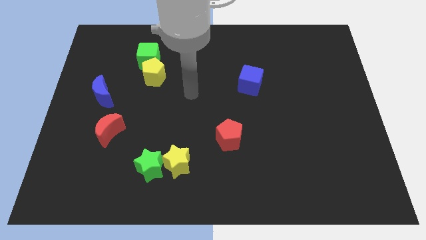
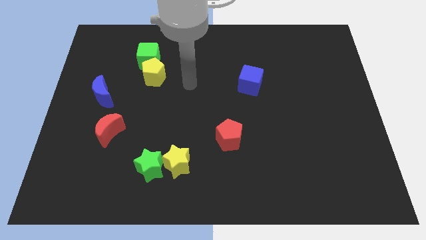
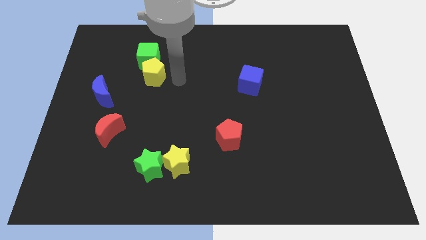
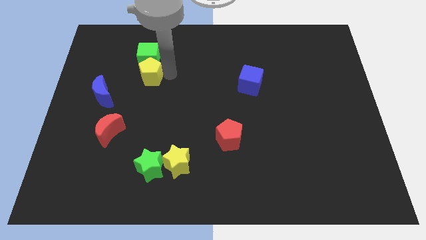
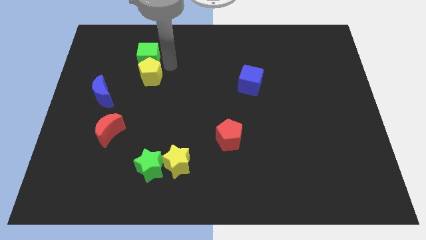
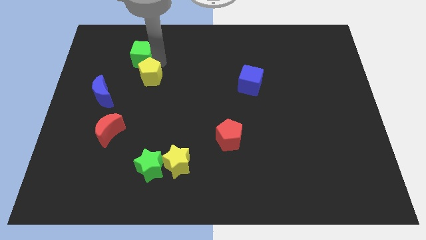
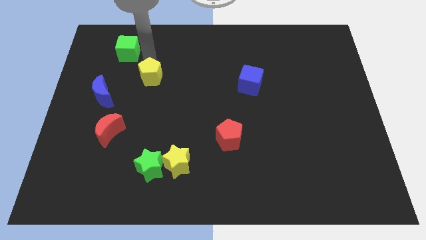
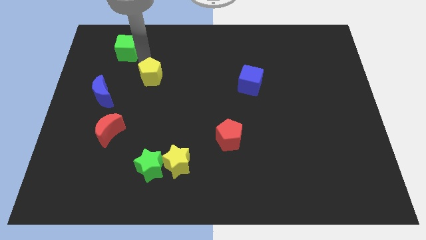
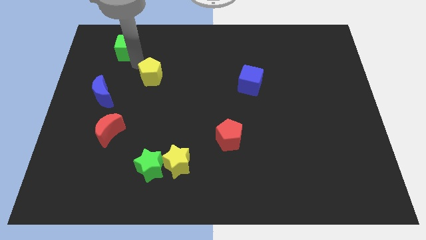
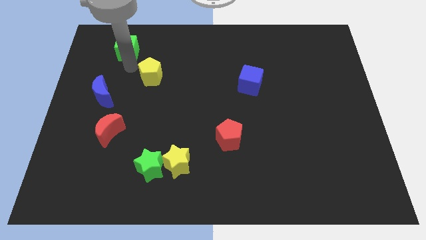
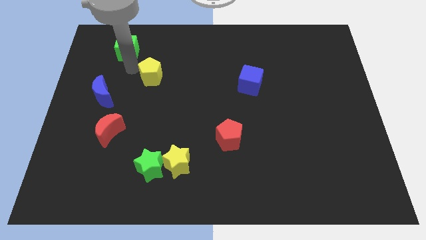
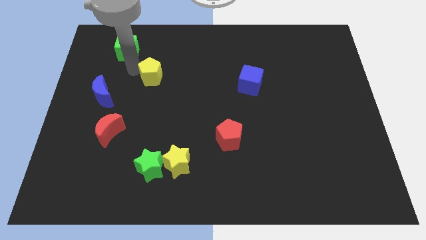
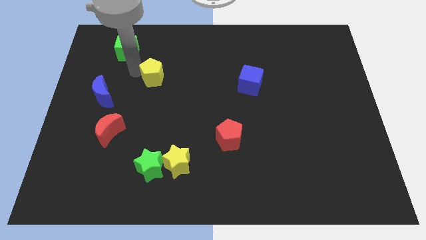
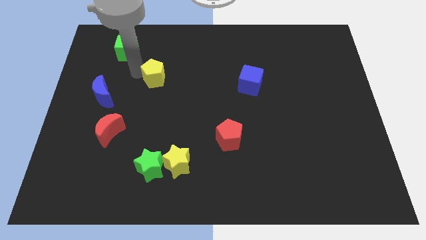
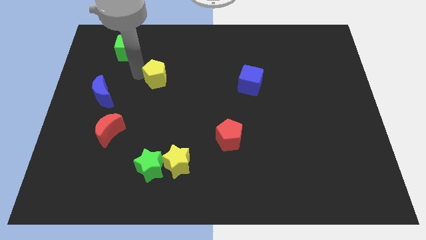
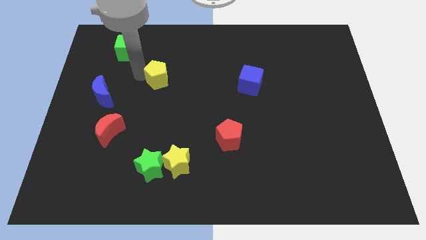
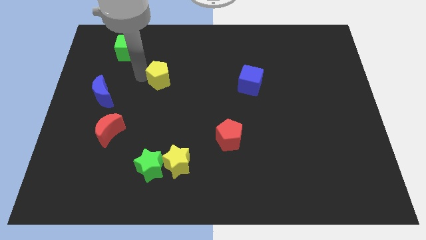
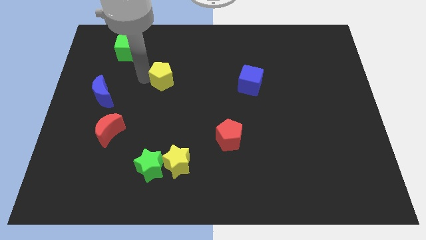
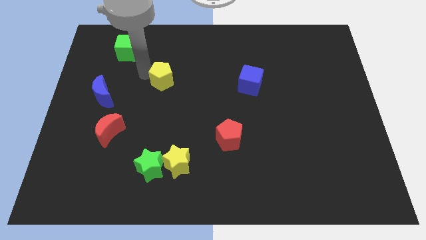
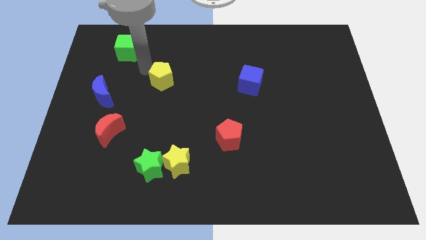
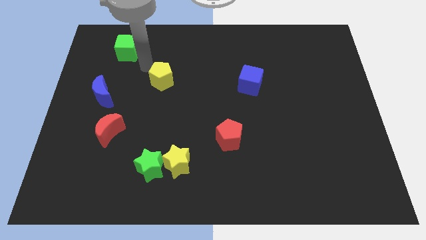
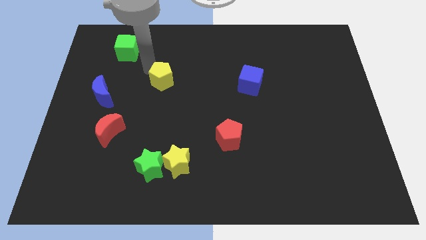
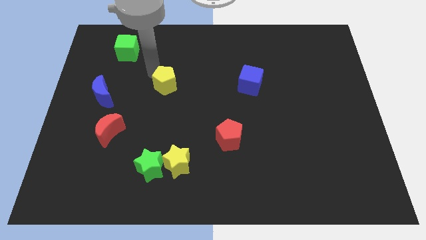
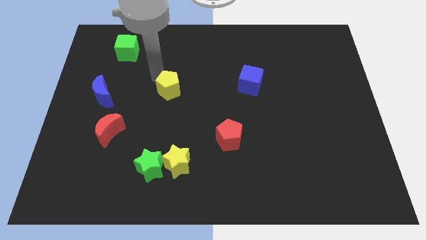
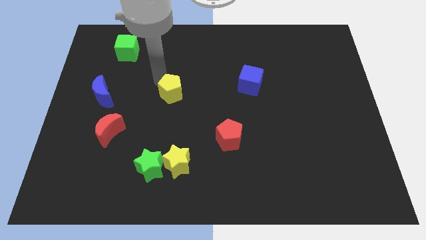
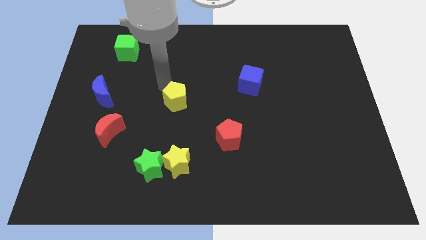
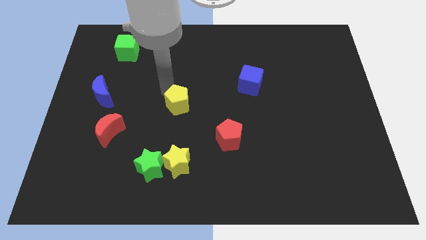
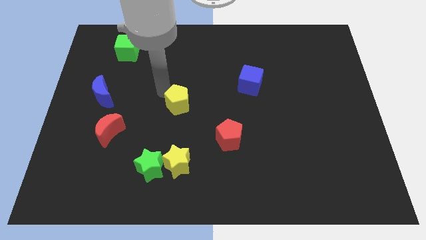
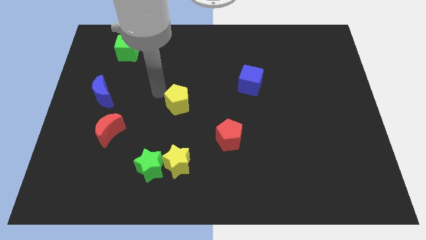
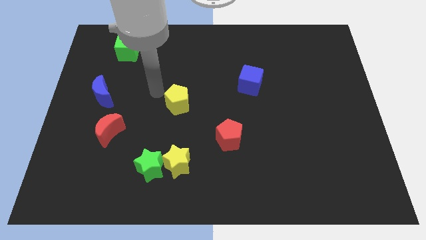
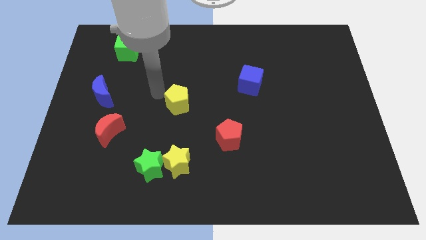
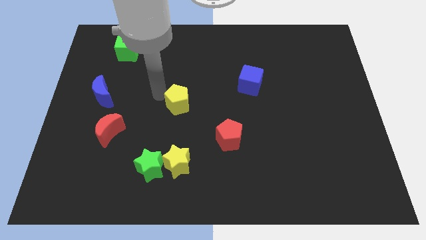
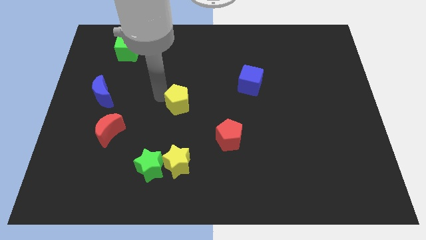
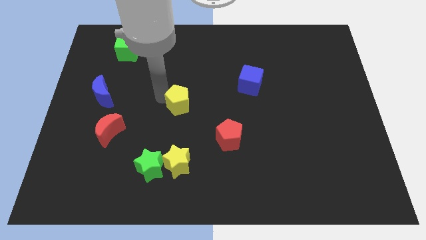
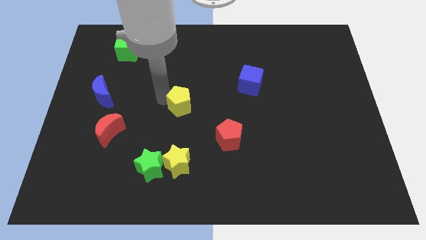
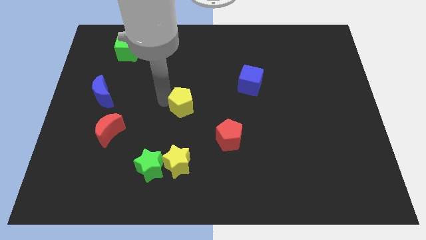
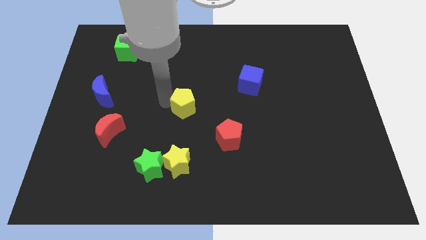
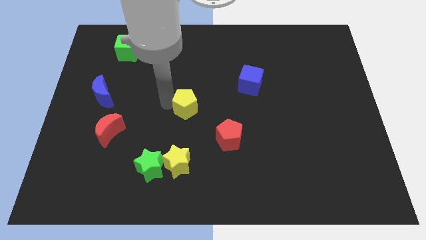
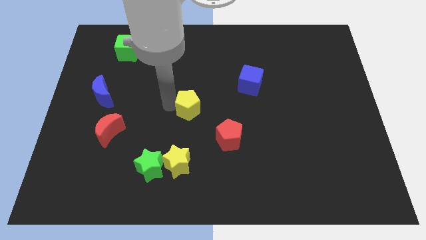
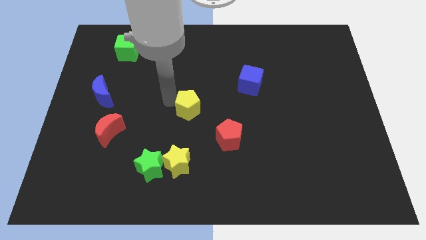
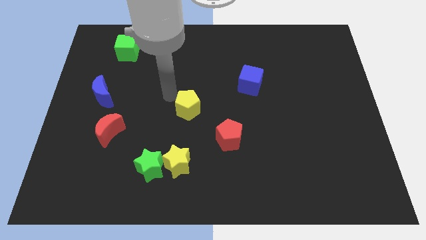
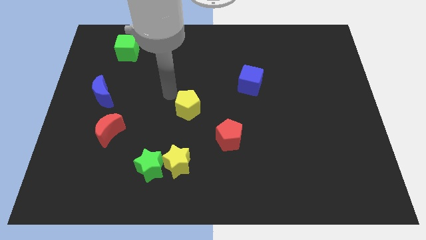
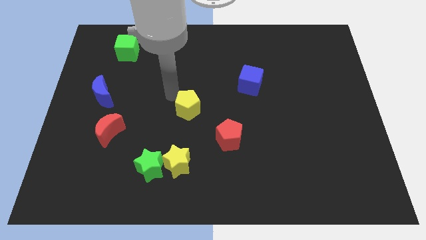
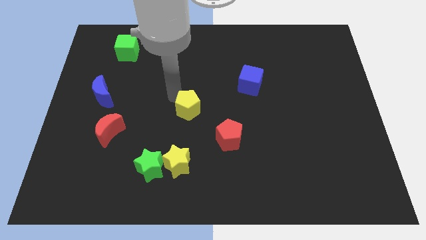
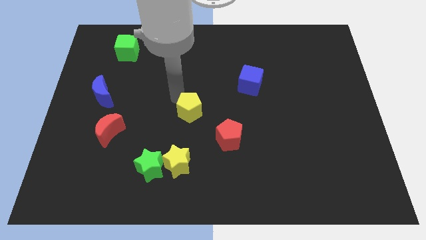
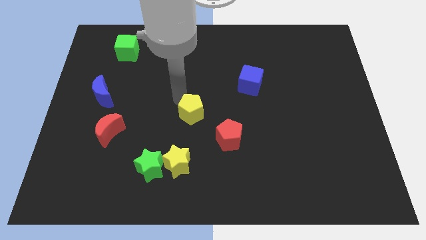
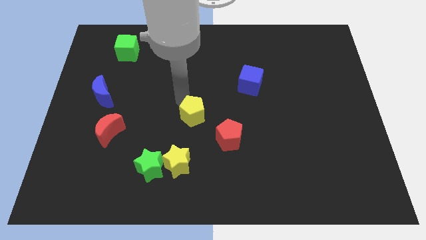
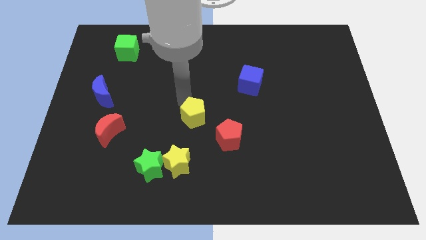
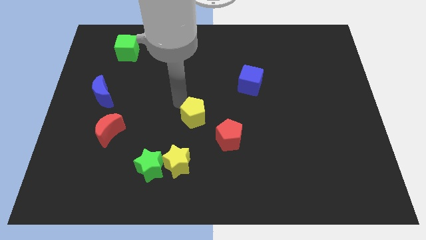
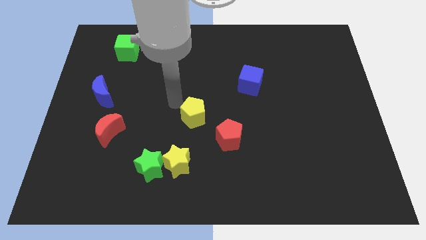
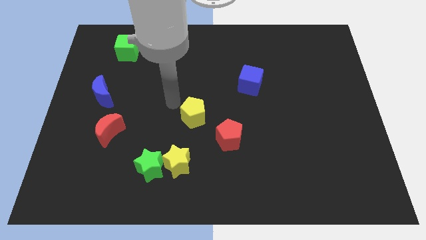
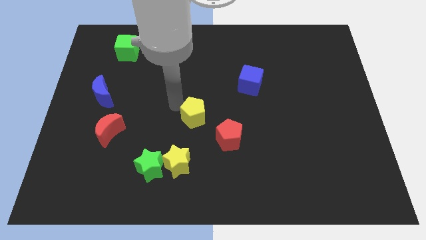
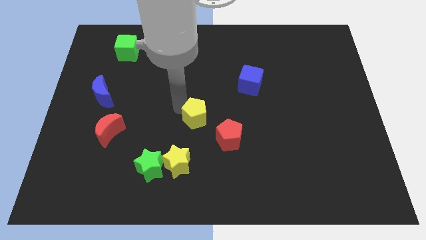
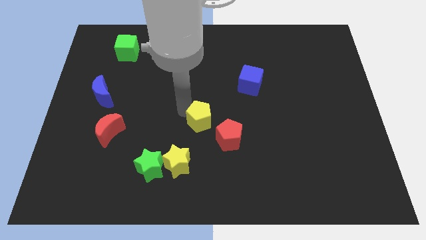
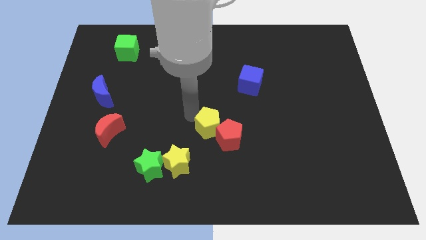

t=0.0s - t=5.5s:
move the yellow pentagon next to the red pentagon

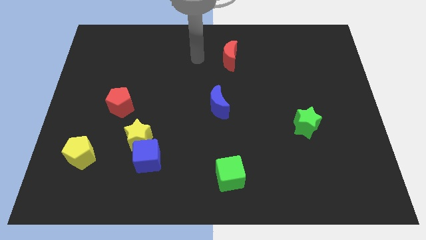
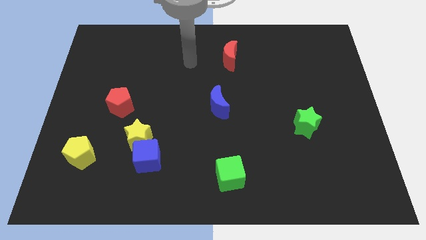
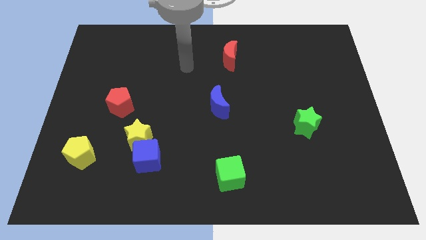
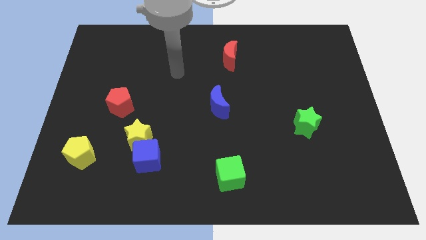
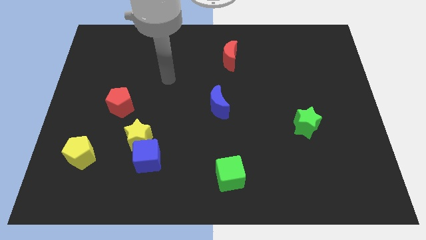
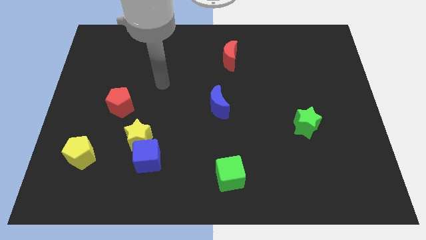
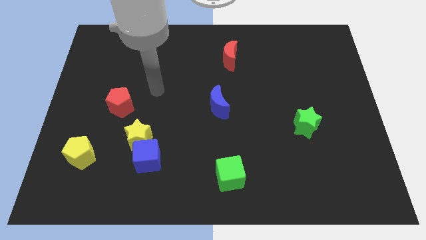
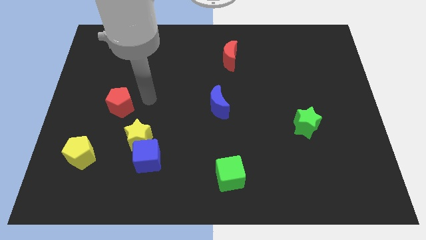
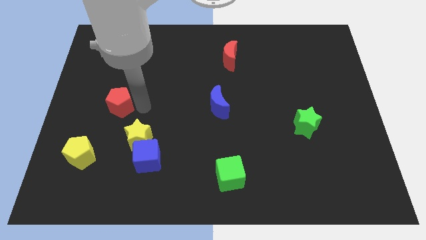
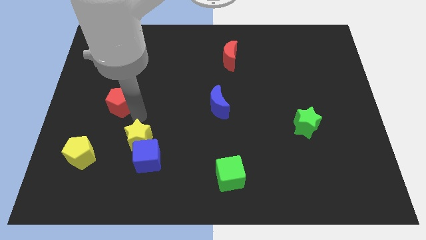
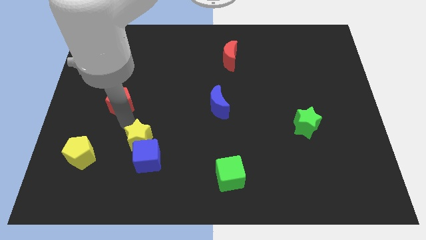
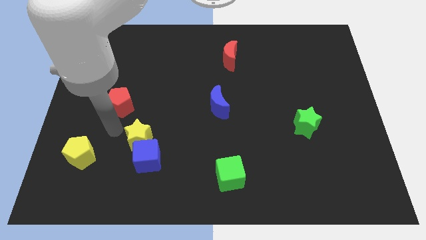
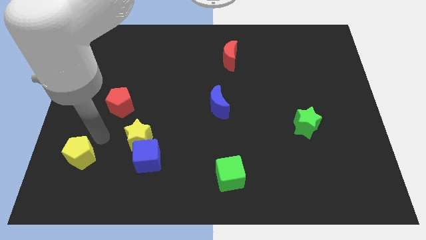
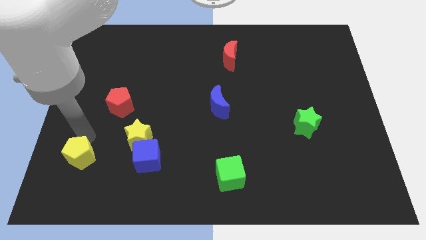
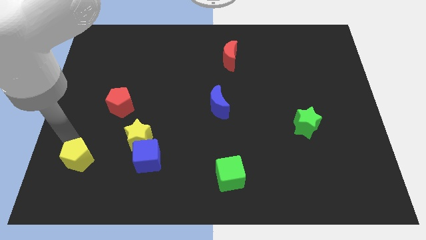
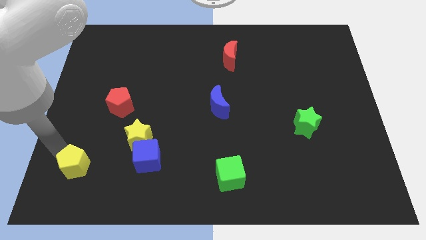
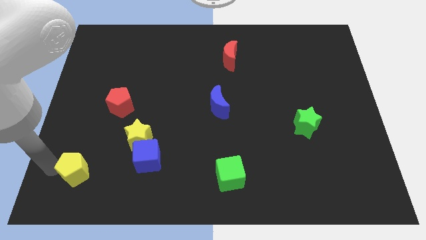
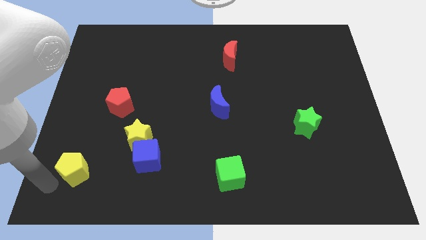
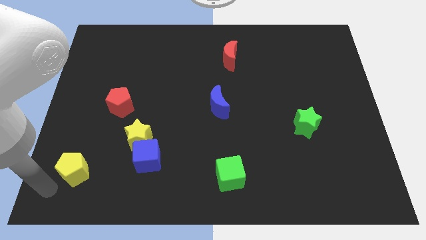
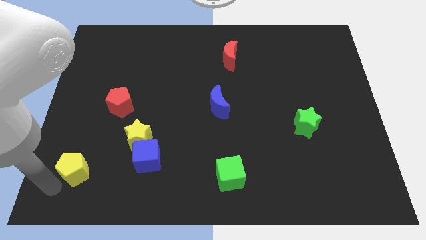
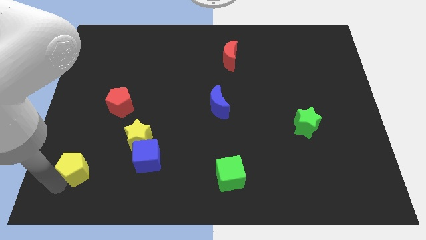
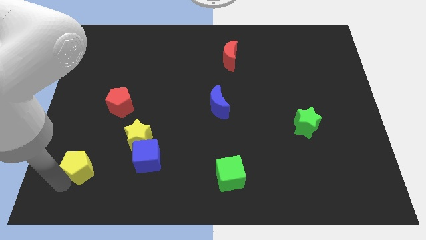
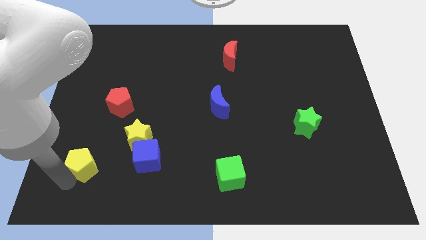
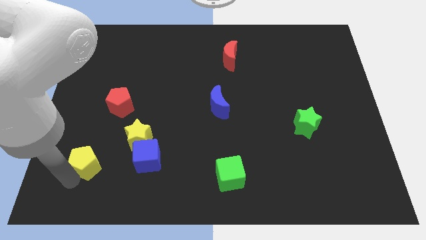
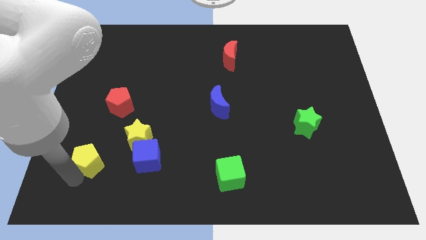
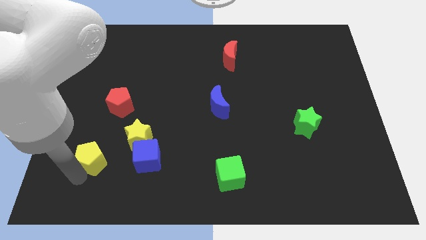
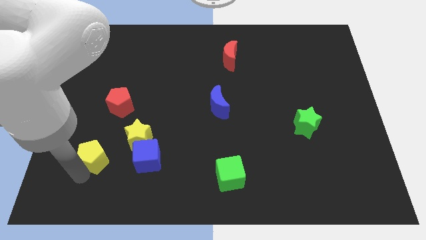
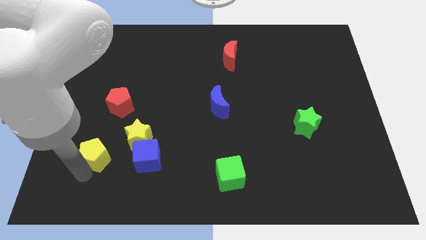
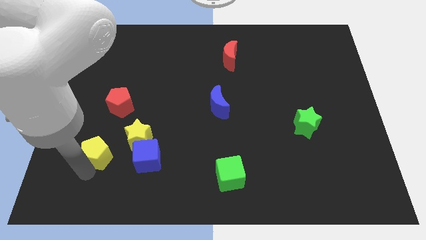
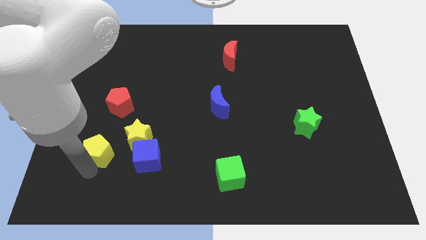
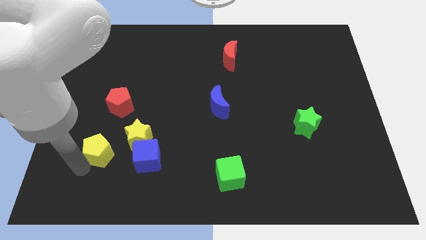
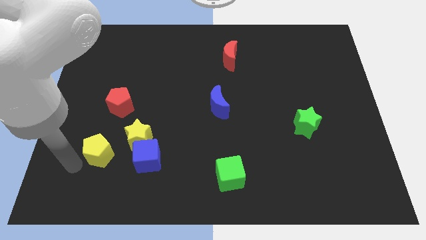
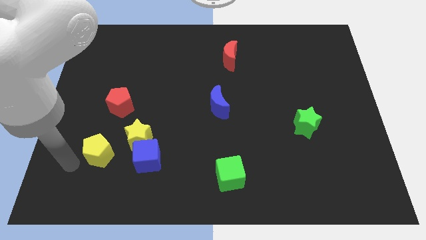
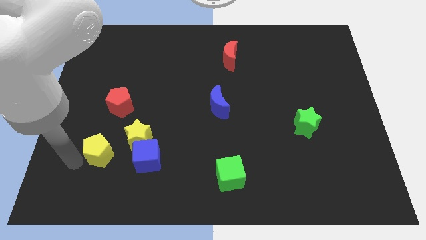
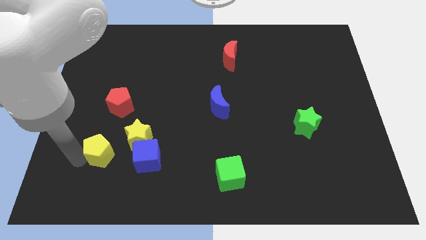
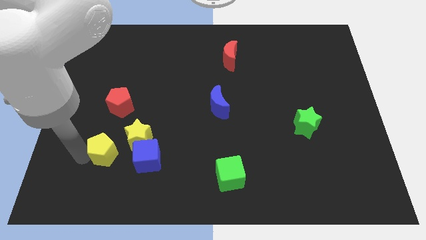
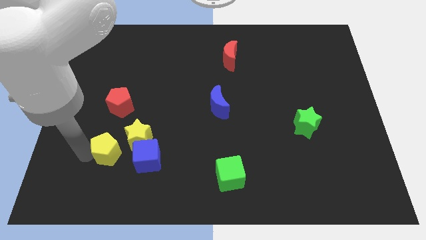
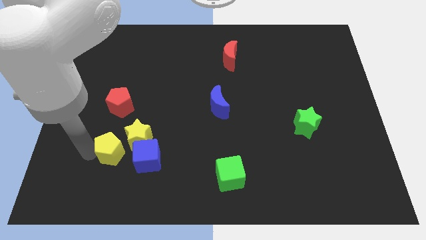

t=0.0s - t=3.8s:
move the yellow pentagon next to the yellow star
